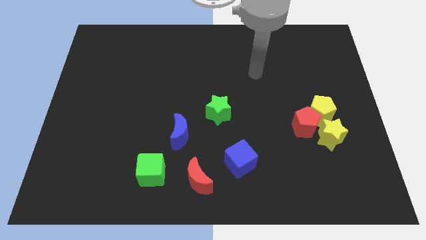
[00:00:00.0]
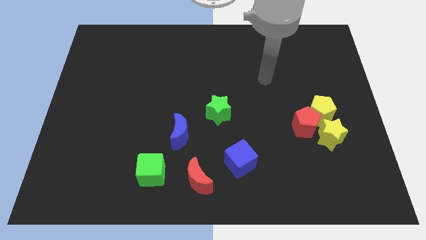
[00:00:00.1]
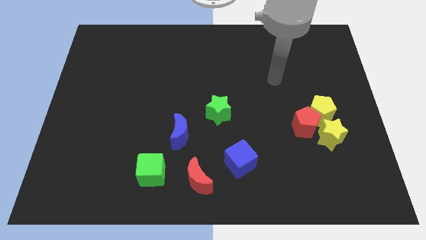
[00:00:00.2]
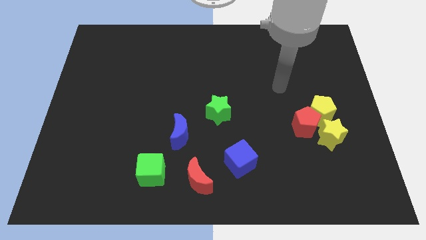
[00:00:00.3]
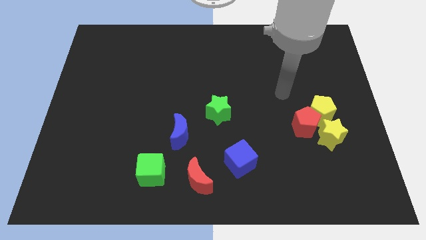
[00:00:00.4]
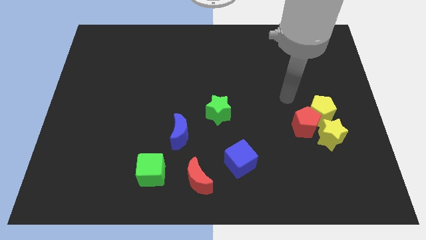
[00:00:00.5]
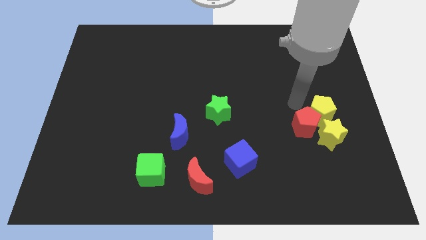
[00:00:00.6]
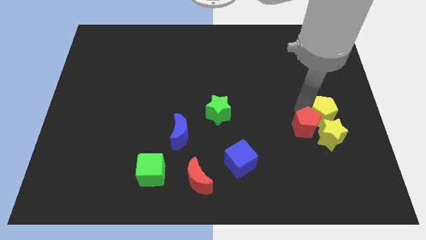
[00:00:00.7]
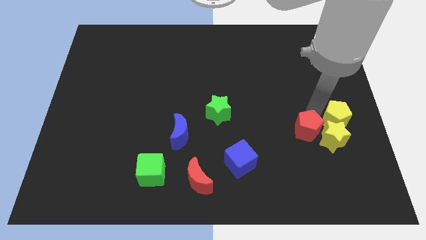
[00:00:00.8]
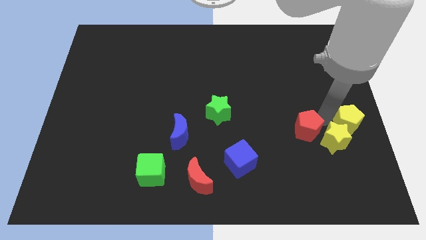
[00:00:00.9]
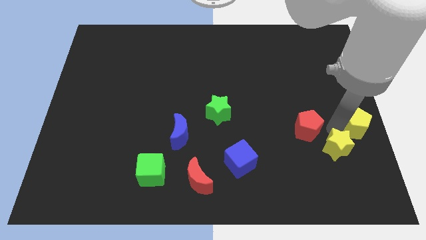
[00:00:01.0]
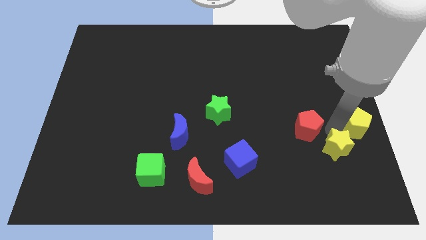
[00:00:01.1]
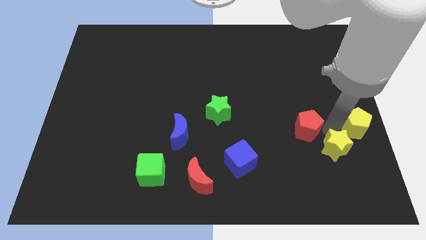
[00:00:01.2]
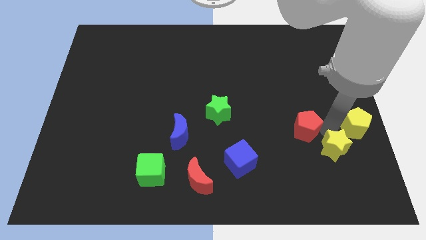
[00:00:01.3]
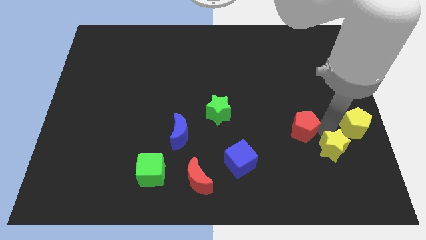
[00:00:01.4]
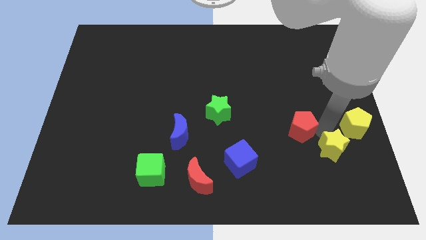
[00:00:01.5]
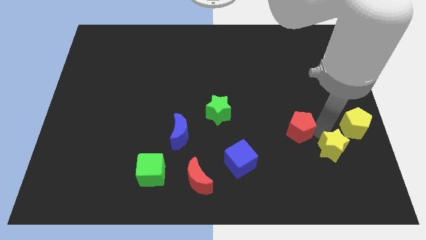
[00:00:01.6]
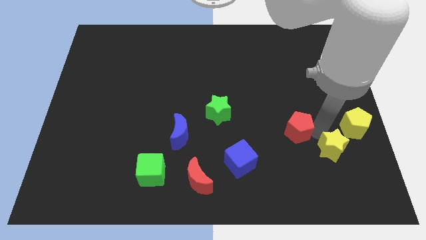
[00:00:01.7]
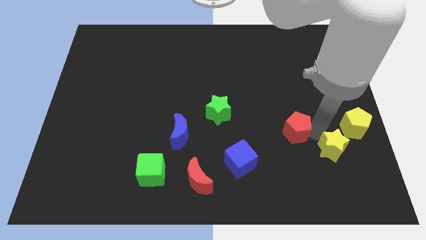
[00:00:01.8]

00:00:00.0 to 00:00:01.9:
separate the red pentagon from the yellow pentagon and yellow star

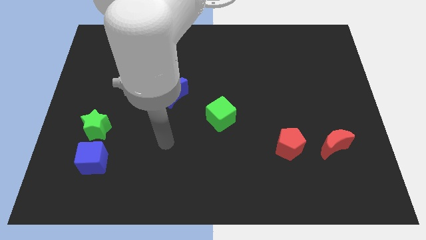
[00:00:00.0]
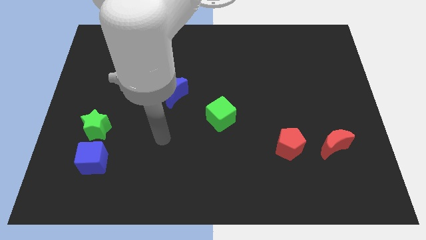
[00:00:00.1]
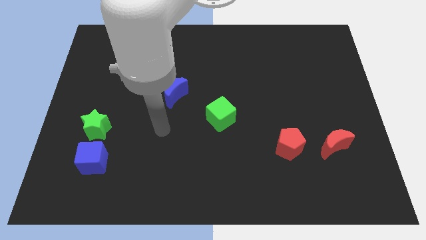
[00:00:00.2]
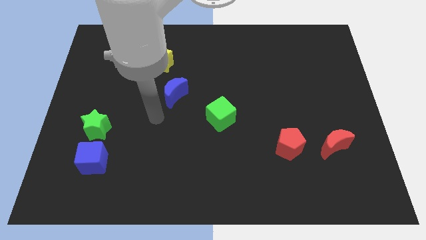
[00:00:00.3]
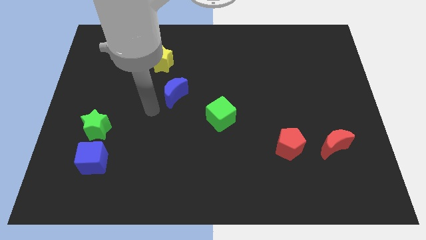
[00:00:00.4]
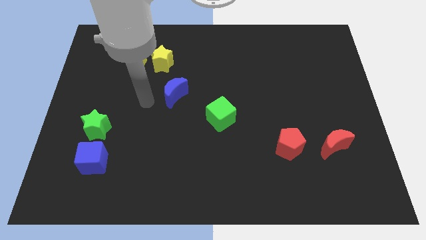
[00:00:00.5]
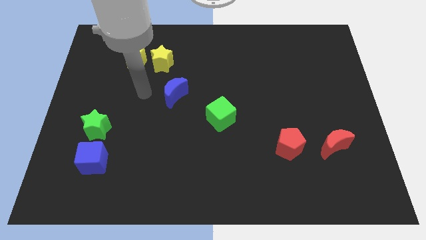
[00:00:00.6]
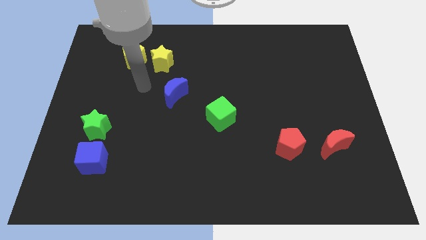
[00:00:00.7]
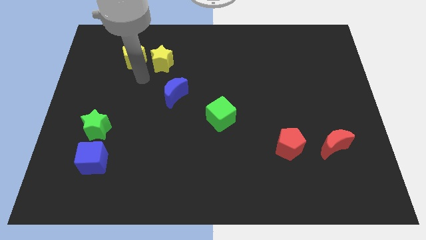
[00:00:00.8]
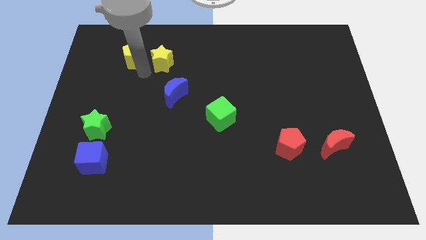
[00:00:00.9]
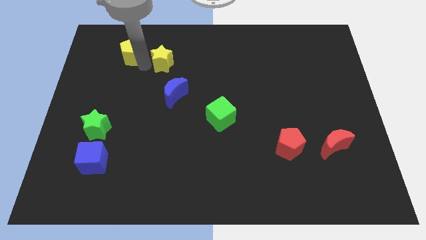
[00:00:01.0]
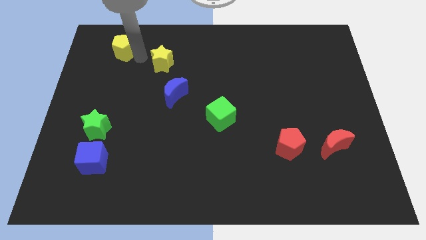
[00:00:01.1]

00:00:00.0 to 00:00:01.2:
pull the yellow star apart from the yellow pentagon

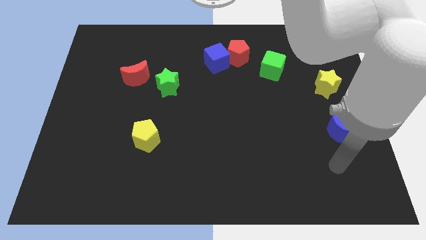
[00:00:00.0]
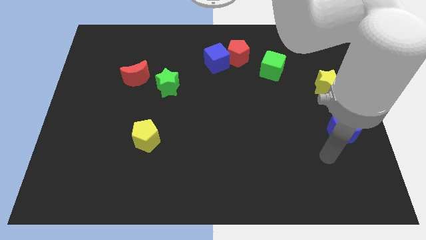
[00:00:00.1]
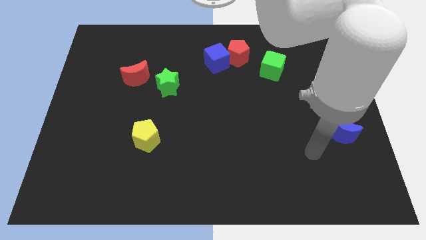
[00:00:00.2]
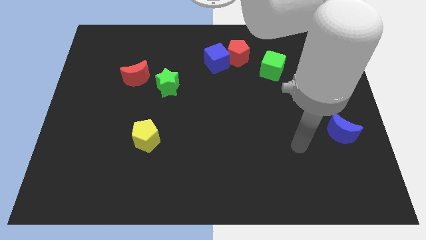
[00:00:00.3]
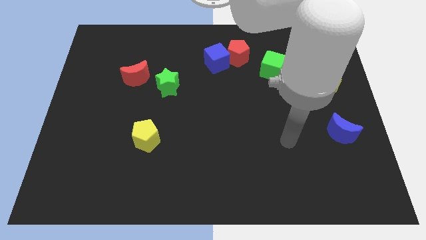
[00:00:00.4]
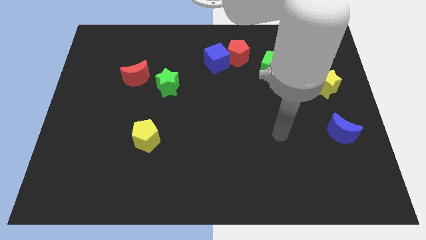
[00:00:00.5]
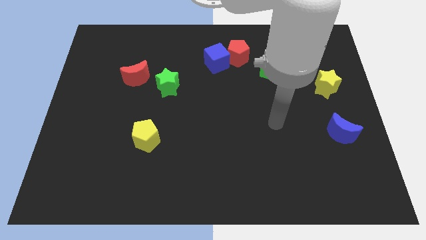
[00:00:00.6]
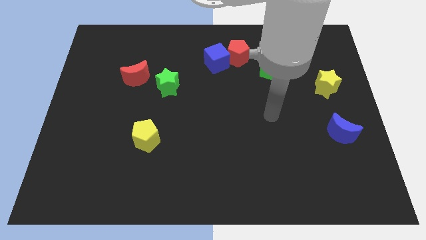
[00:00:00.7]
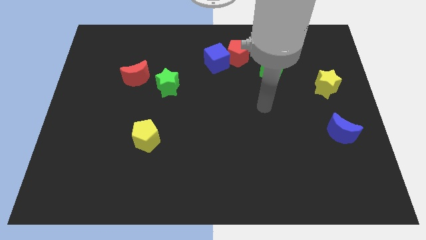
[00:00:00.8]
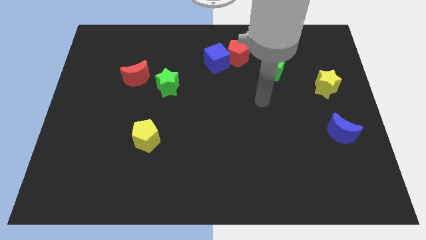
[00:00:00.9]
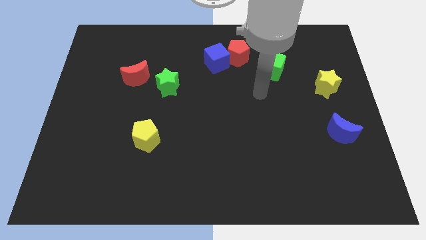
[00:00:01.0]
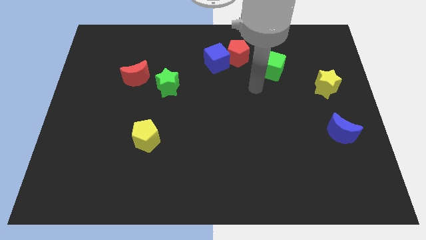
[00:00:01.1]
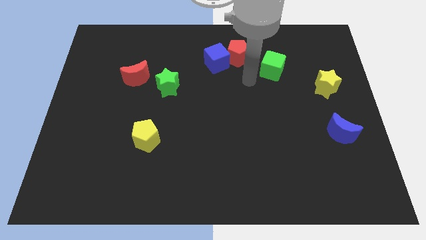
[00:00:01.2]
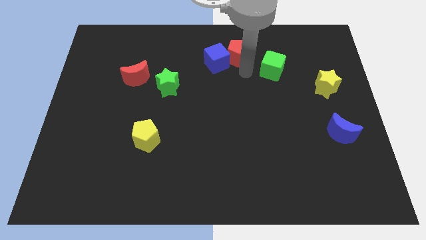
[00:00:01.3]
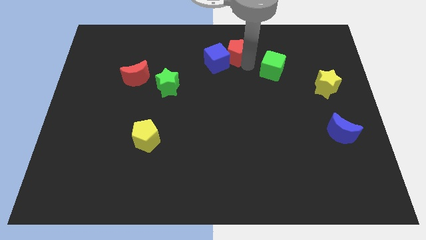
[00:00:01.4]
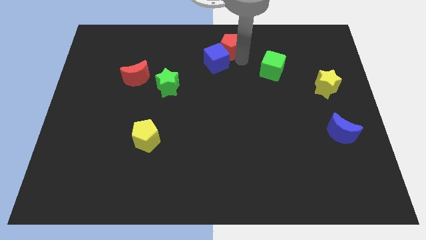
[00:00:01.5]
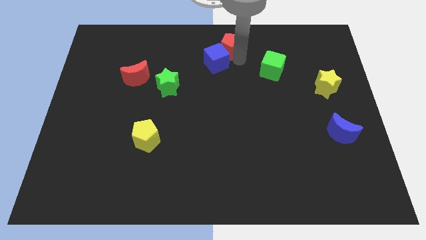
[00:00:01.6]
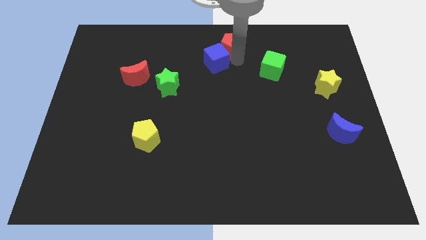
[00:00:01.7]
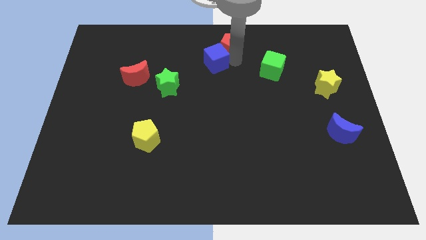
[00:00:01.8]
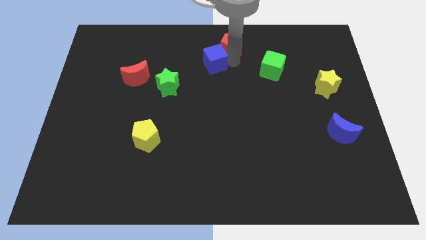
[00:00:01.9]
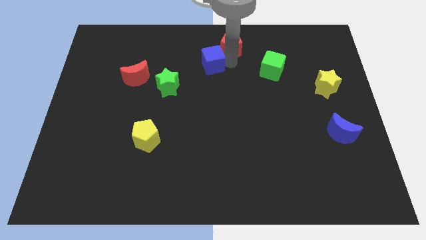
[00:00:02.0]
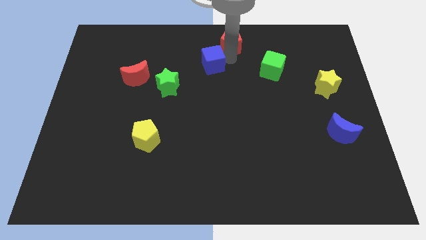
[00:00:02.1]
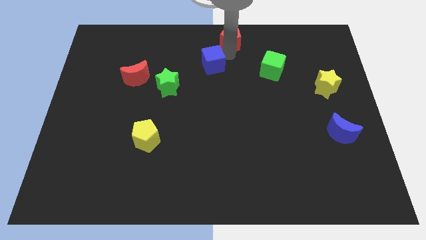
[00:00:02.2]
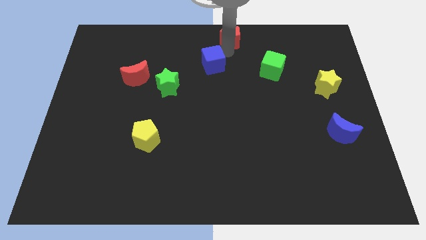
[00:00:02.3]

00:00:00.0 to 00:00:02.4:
pull the blue cube apart from the red pentagon

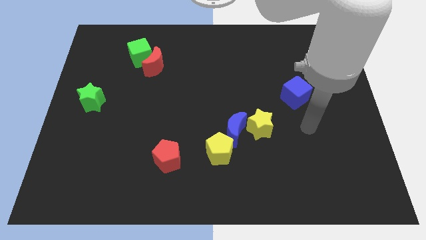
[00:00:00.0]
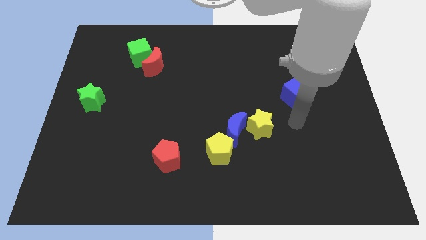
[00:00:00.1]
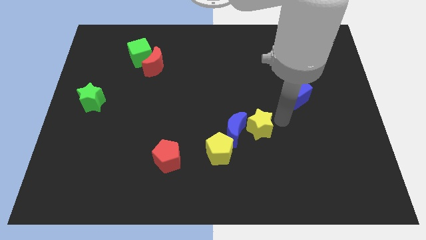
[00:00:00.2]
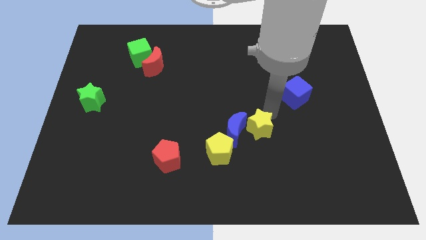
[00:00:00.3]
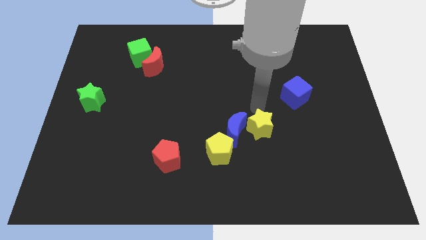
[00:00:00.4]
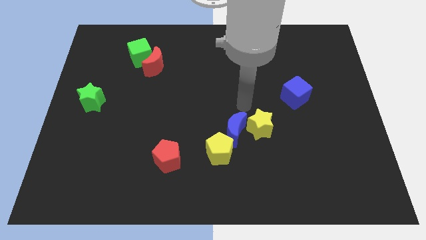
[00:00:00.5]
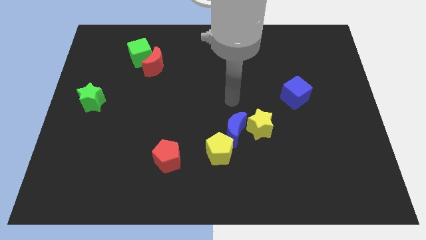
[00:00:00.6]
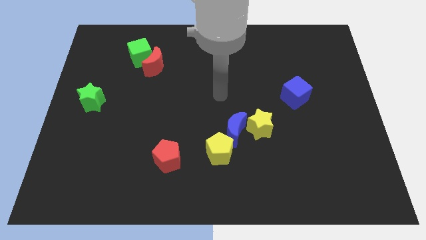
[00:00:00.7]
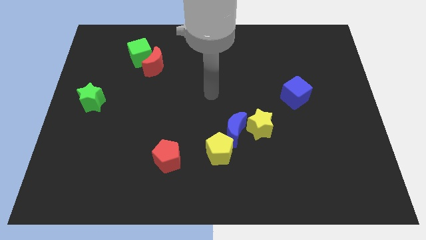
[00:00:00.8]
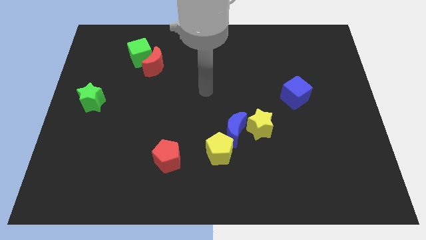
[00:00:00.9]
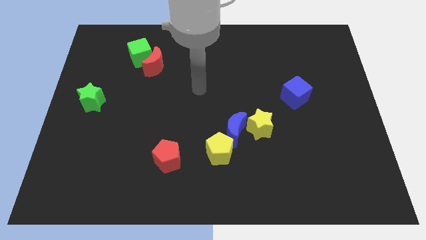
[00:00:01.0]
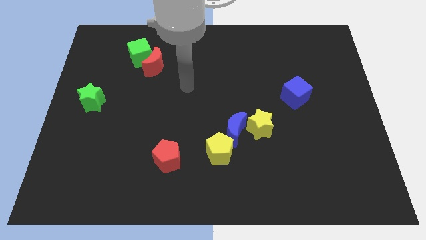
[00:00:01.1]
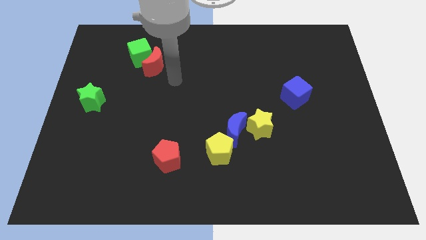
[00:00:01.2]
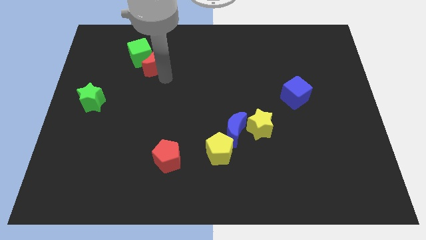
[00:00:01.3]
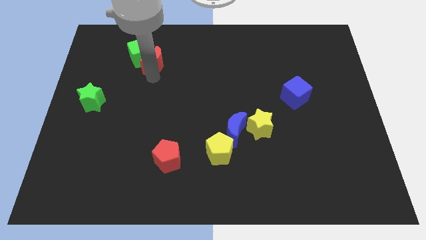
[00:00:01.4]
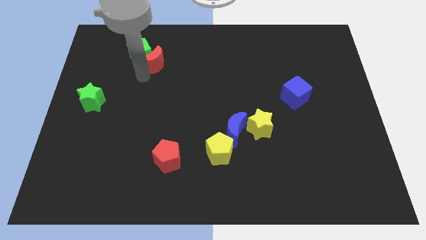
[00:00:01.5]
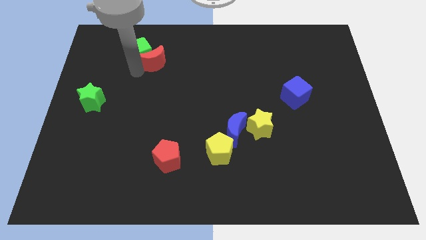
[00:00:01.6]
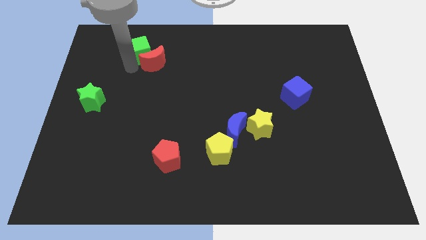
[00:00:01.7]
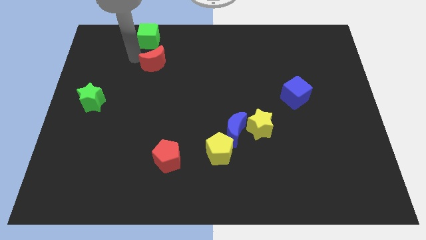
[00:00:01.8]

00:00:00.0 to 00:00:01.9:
pull the red moon apart from the green cube

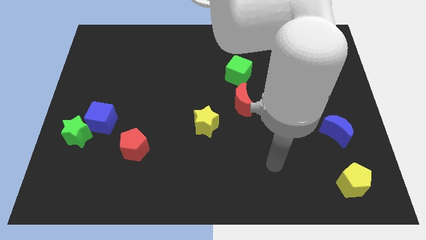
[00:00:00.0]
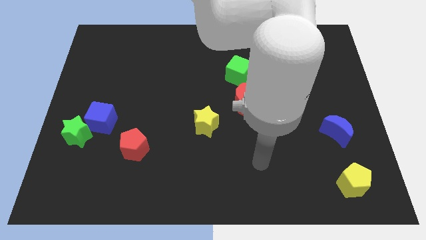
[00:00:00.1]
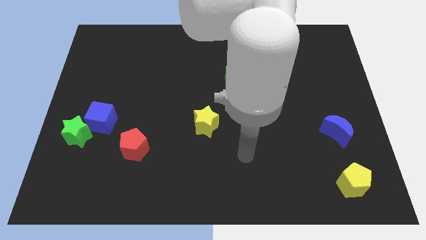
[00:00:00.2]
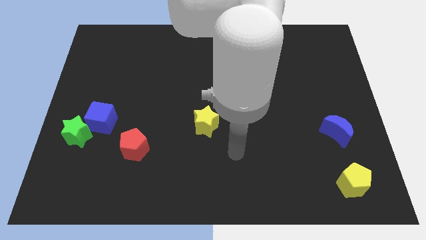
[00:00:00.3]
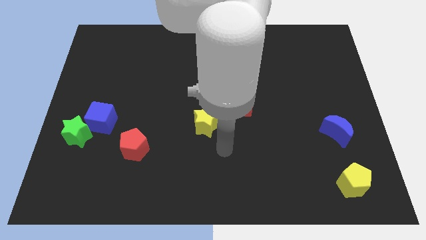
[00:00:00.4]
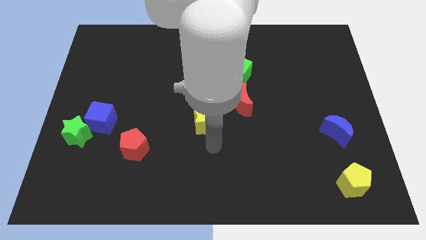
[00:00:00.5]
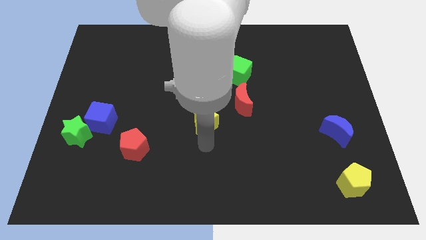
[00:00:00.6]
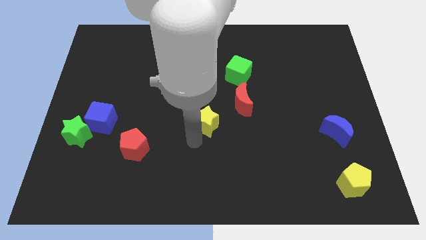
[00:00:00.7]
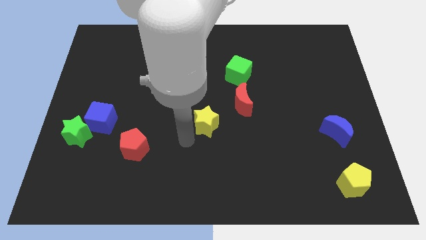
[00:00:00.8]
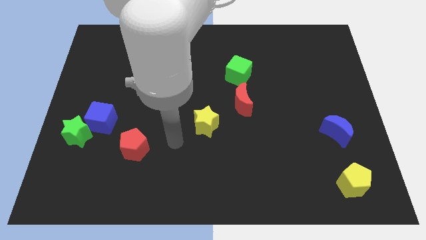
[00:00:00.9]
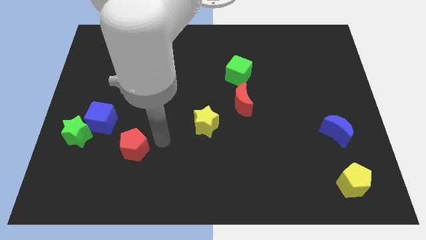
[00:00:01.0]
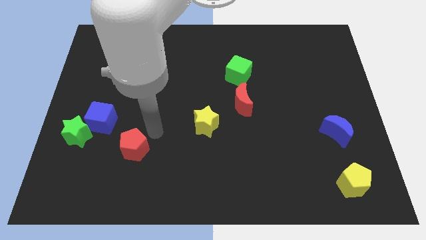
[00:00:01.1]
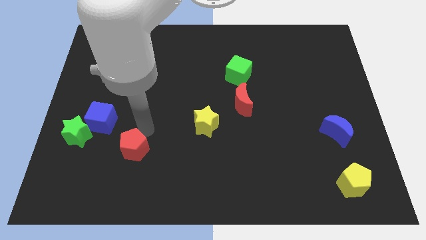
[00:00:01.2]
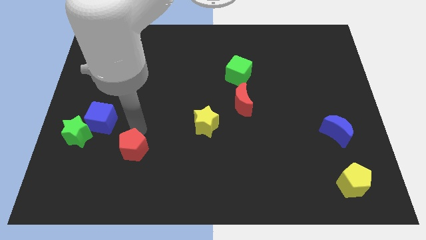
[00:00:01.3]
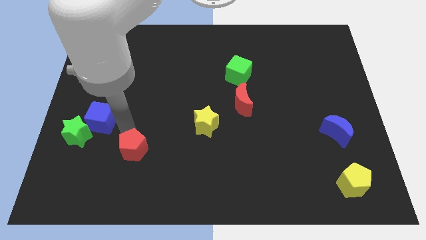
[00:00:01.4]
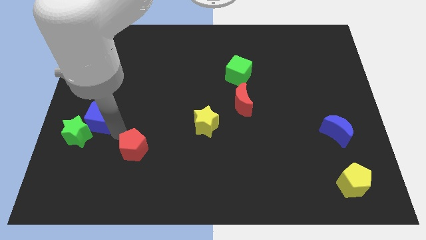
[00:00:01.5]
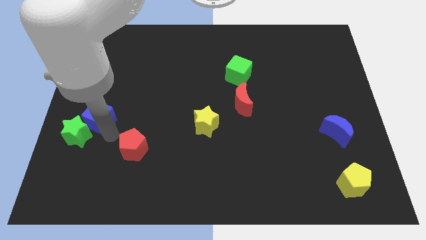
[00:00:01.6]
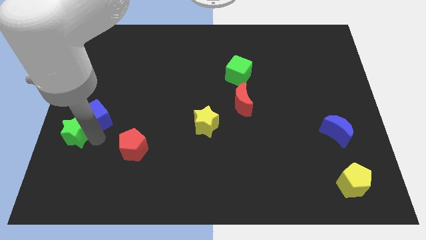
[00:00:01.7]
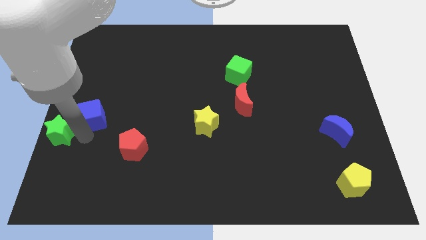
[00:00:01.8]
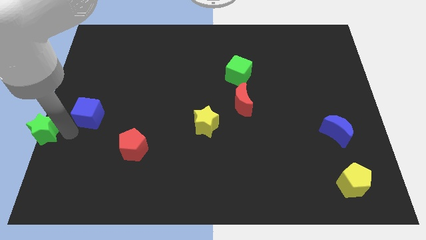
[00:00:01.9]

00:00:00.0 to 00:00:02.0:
move the blue cube away from the green star
